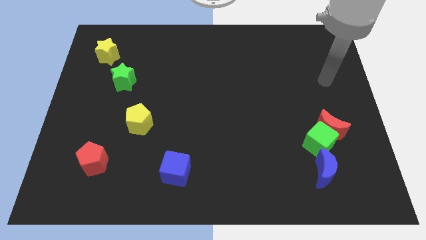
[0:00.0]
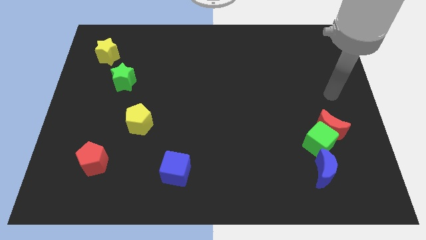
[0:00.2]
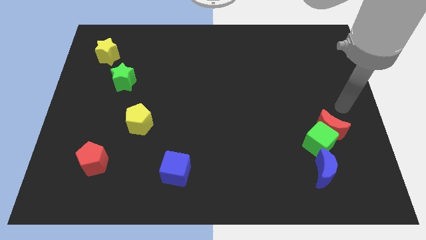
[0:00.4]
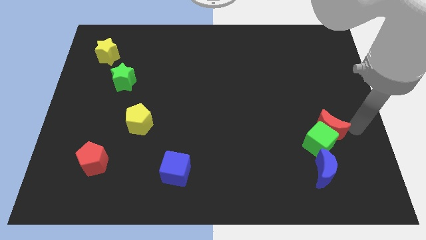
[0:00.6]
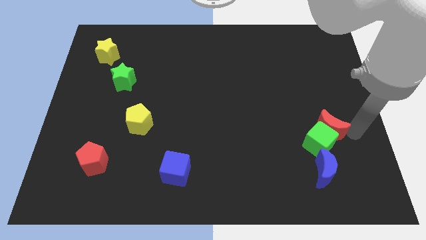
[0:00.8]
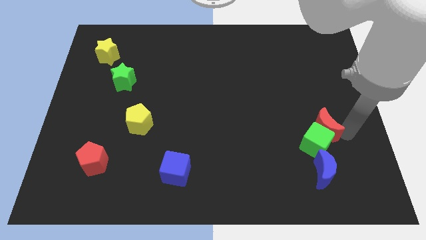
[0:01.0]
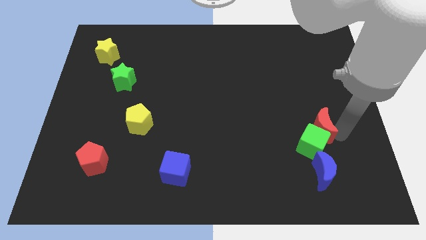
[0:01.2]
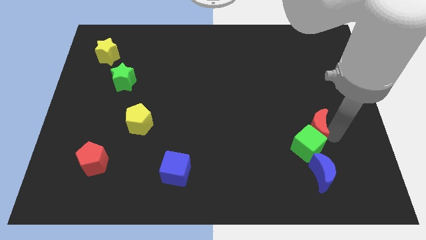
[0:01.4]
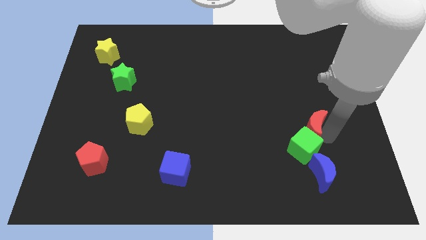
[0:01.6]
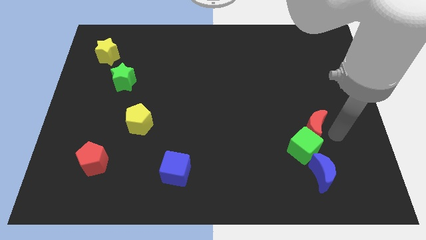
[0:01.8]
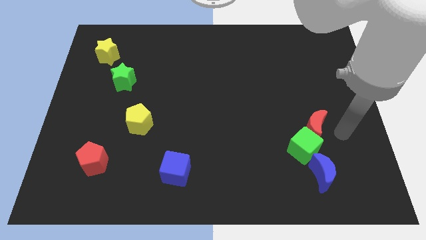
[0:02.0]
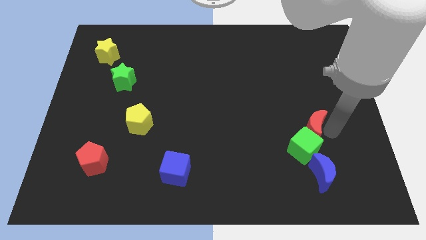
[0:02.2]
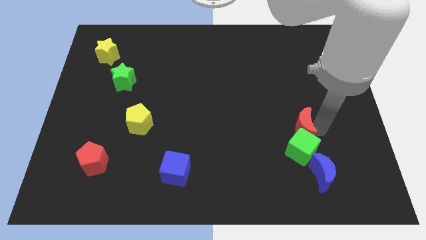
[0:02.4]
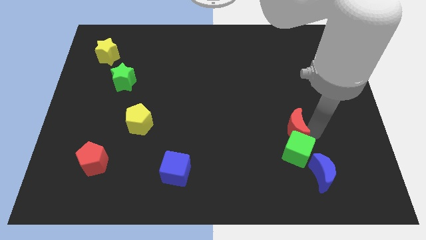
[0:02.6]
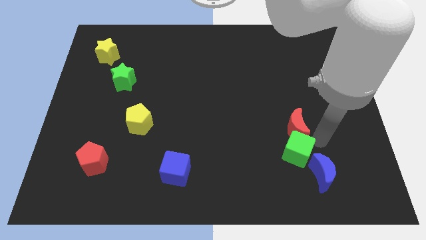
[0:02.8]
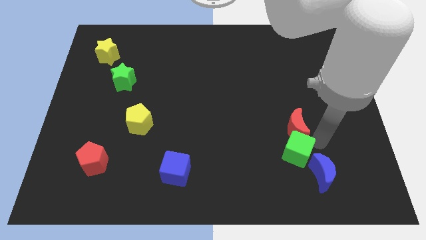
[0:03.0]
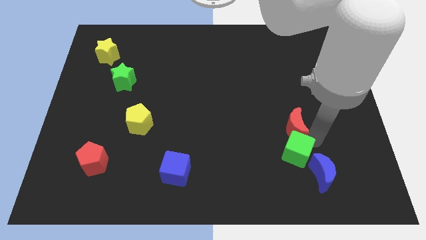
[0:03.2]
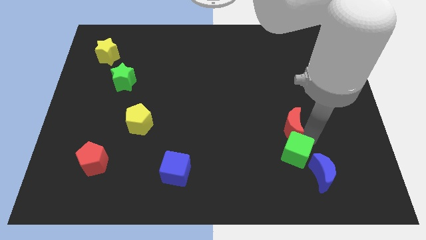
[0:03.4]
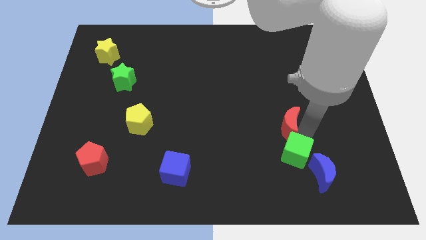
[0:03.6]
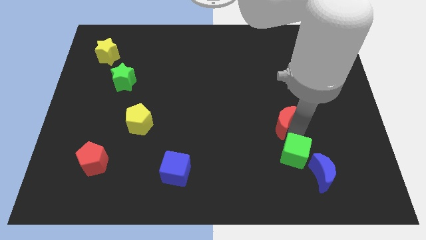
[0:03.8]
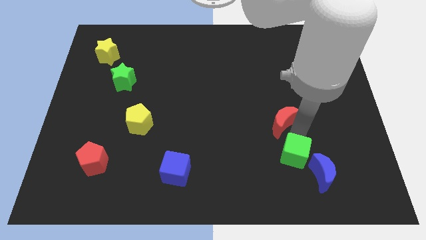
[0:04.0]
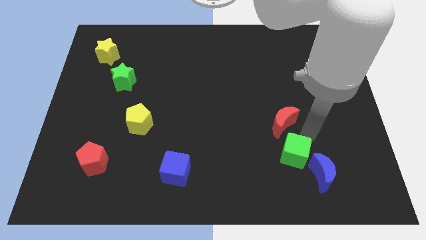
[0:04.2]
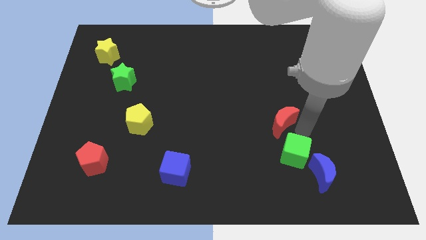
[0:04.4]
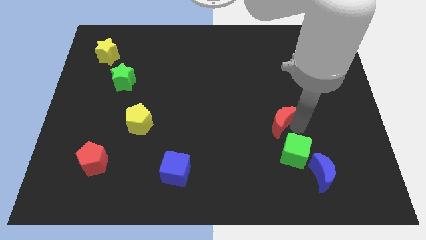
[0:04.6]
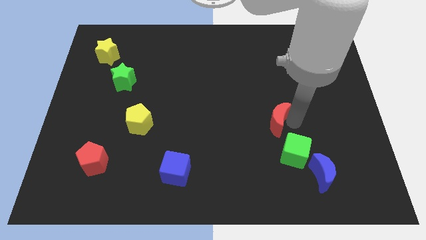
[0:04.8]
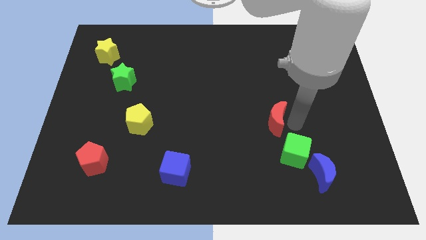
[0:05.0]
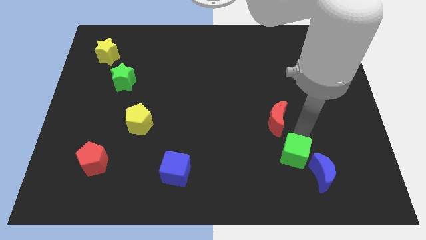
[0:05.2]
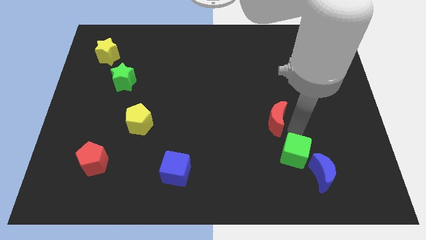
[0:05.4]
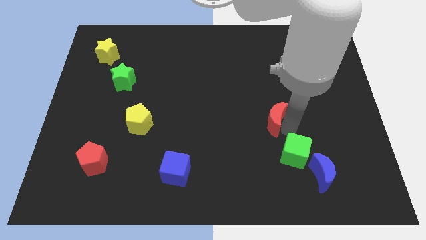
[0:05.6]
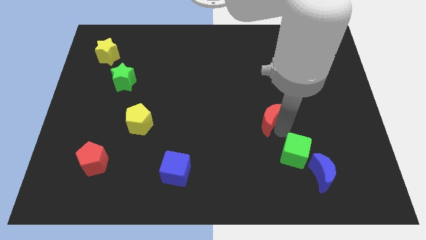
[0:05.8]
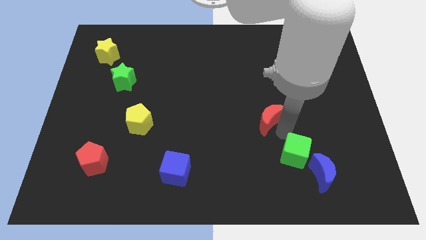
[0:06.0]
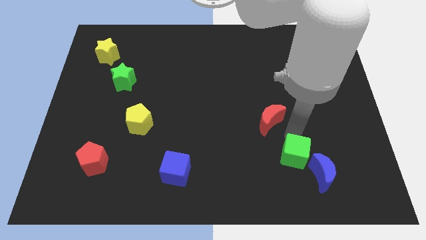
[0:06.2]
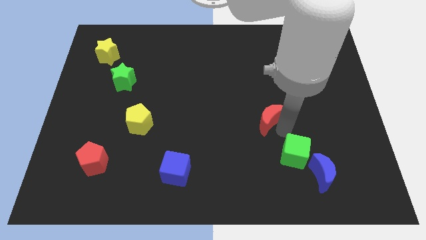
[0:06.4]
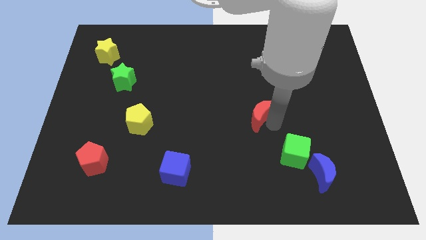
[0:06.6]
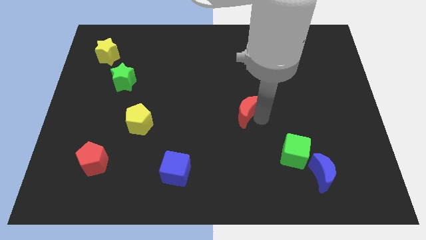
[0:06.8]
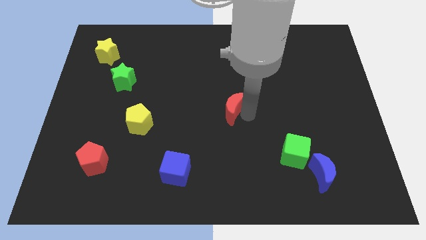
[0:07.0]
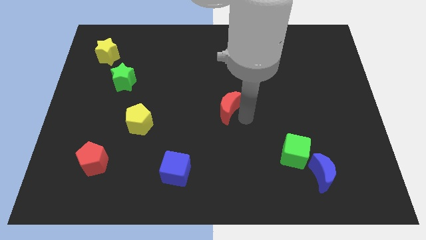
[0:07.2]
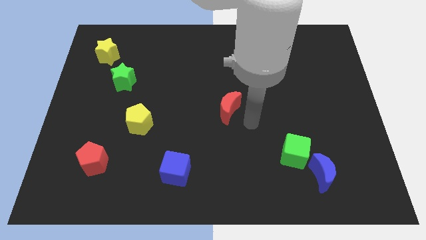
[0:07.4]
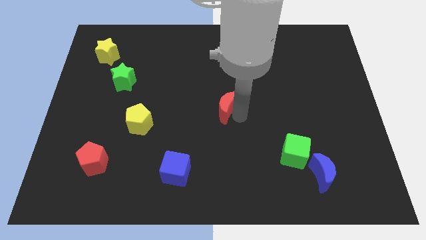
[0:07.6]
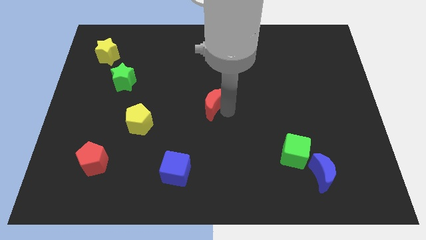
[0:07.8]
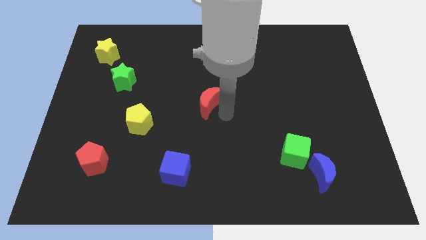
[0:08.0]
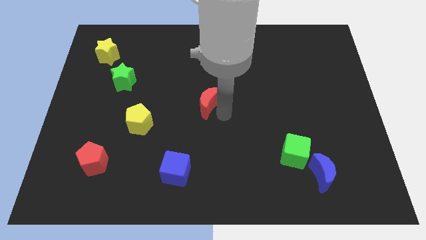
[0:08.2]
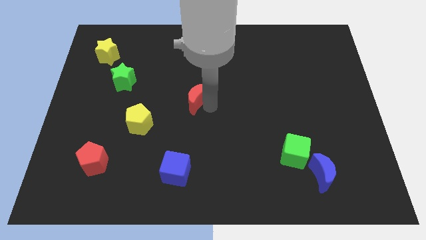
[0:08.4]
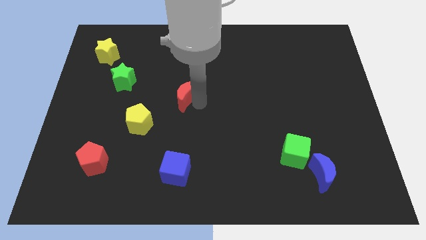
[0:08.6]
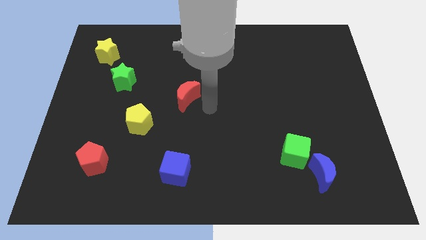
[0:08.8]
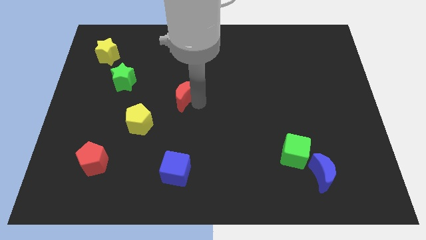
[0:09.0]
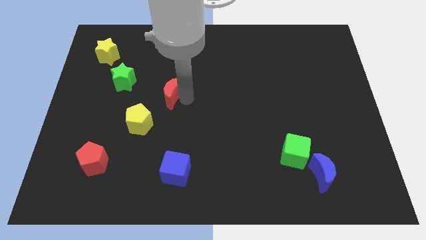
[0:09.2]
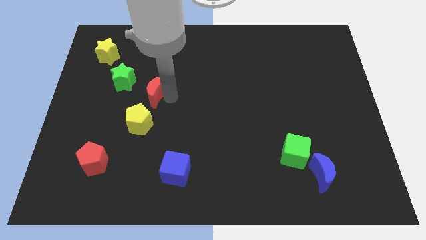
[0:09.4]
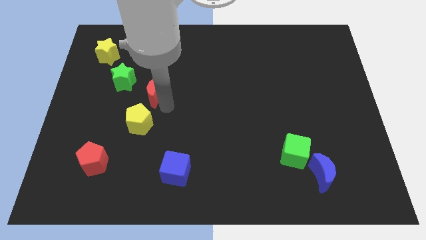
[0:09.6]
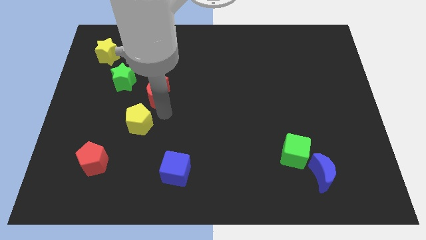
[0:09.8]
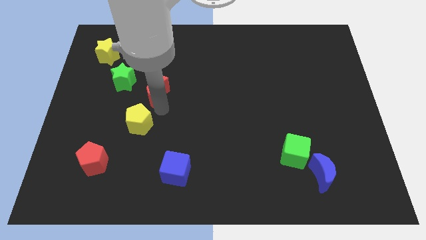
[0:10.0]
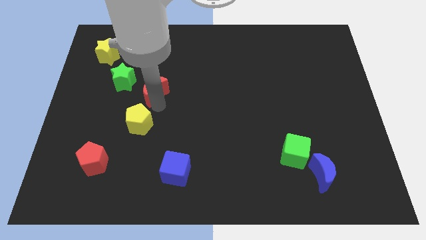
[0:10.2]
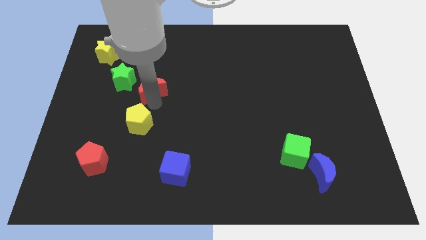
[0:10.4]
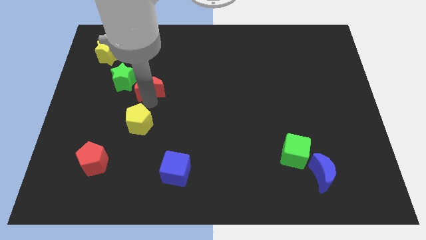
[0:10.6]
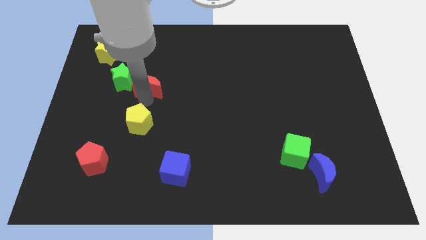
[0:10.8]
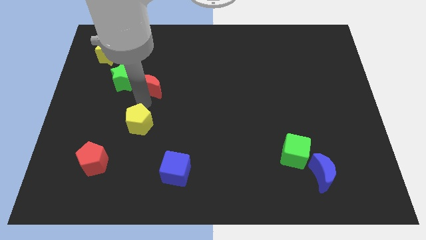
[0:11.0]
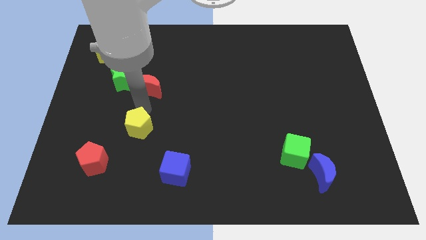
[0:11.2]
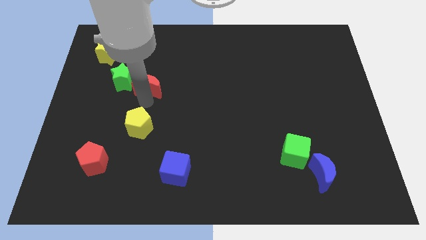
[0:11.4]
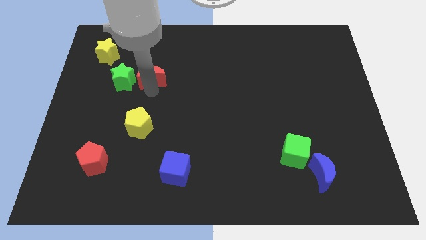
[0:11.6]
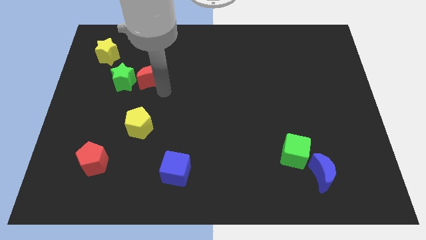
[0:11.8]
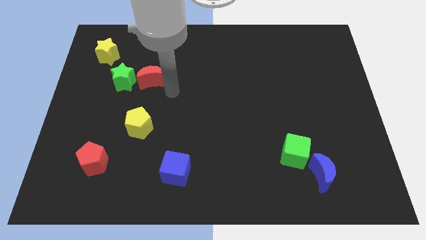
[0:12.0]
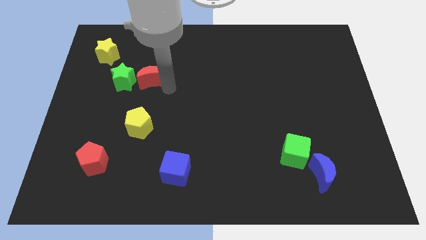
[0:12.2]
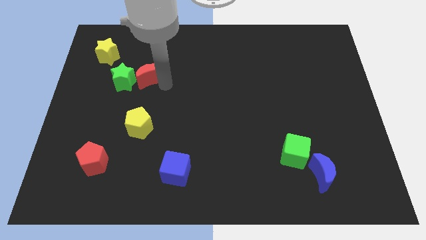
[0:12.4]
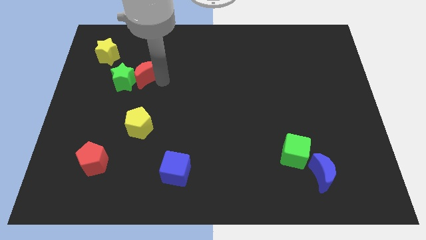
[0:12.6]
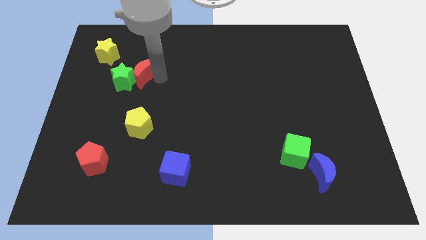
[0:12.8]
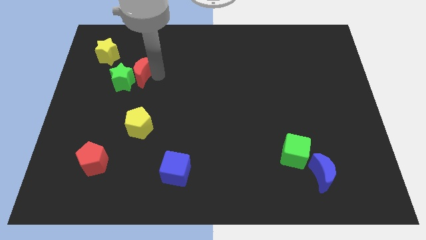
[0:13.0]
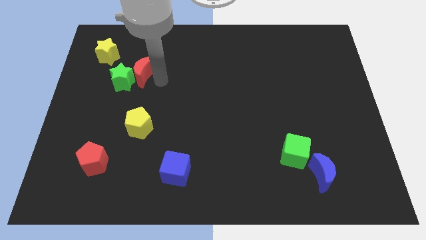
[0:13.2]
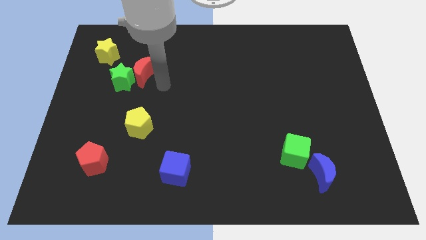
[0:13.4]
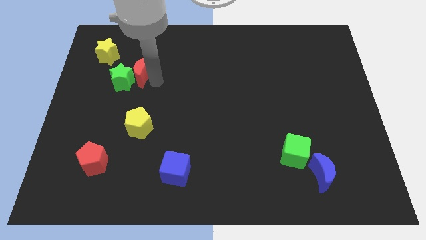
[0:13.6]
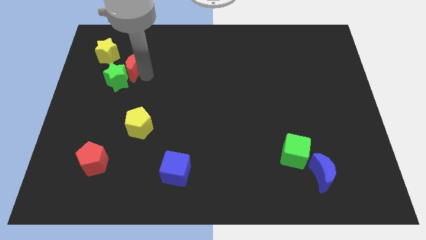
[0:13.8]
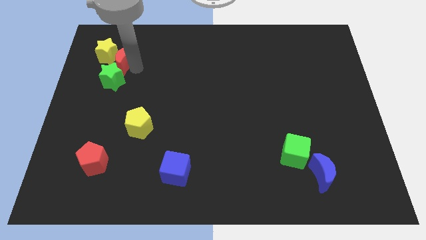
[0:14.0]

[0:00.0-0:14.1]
slide the red moon to the yellow star
